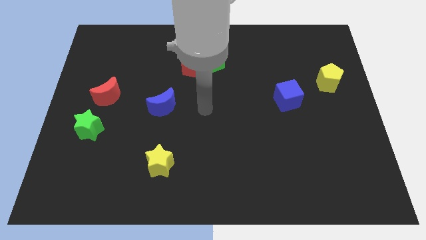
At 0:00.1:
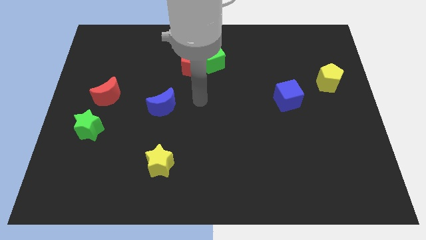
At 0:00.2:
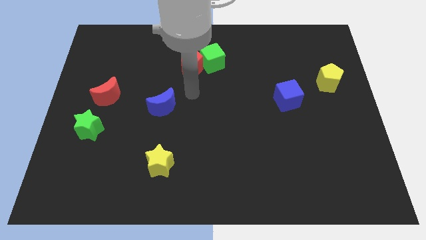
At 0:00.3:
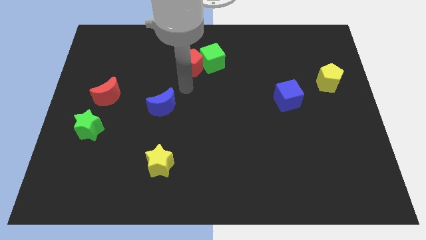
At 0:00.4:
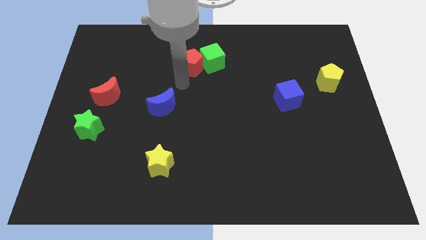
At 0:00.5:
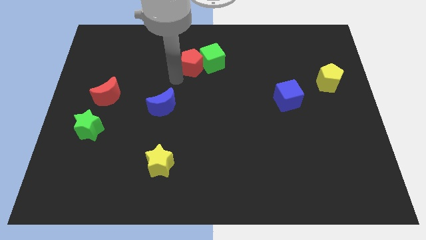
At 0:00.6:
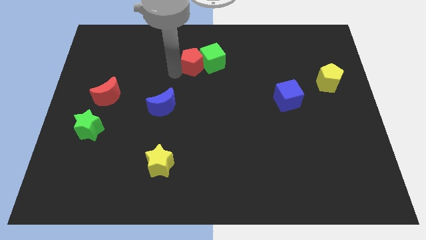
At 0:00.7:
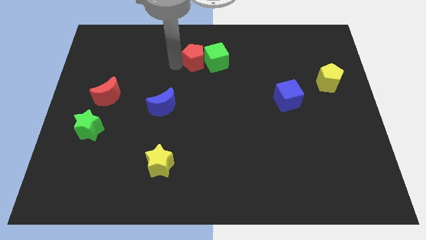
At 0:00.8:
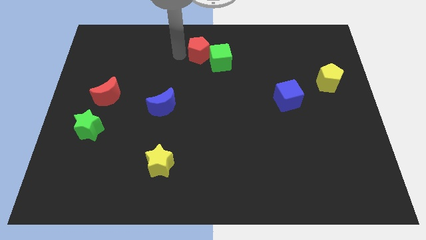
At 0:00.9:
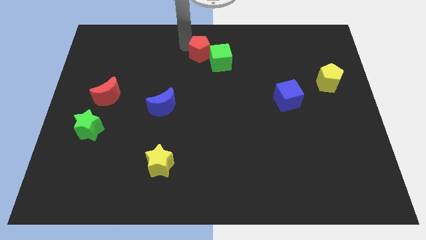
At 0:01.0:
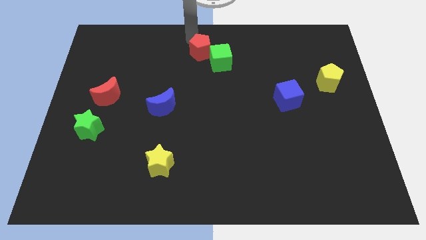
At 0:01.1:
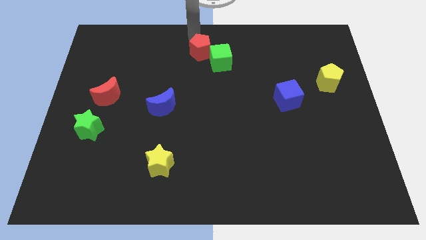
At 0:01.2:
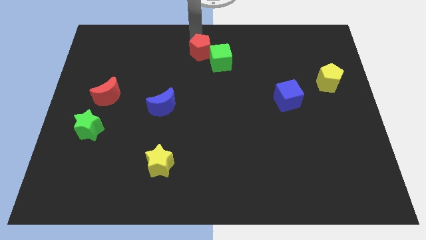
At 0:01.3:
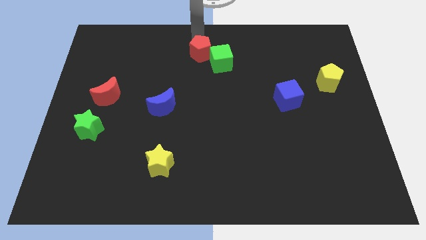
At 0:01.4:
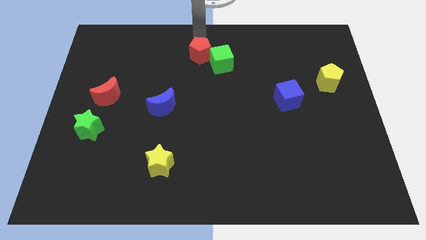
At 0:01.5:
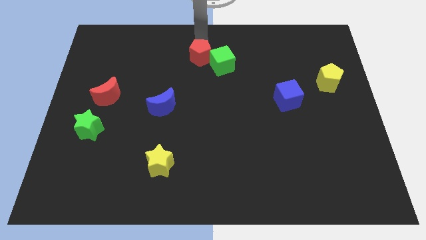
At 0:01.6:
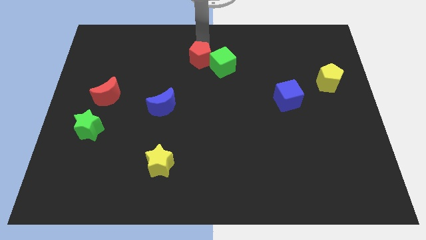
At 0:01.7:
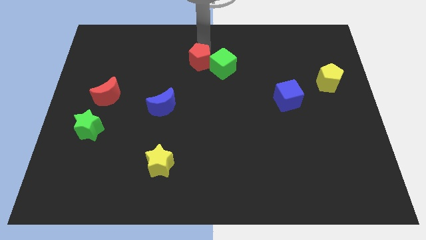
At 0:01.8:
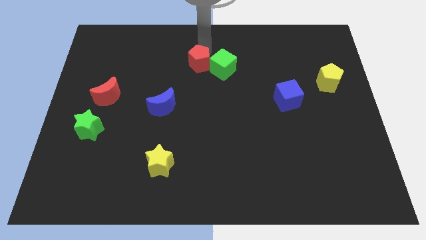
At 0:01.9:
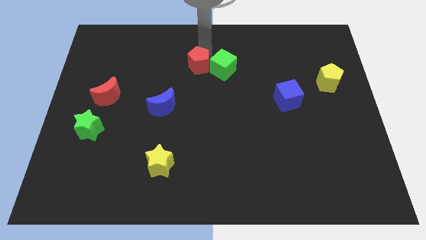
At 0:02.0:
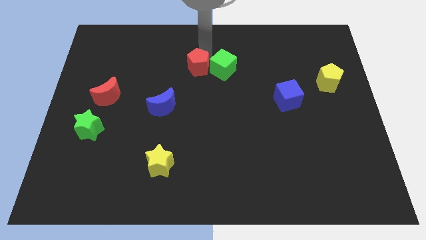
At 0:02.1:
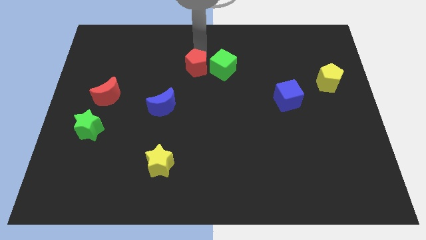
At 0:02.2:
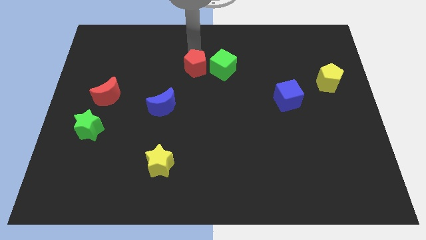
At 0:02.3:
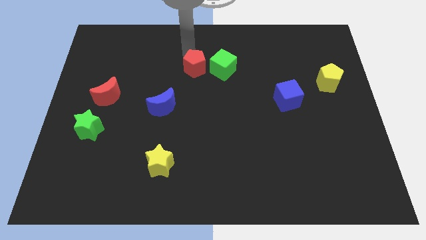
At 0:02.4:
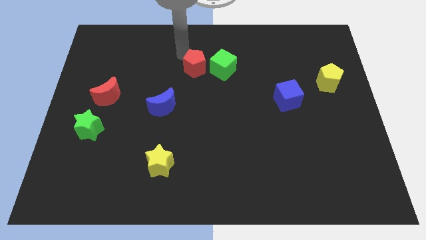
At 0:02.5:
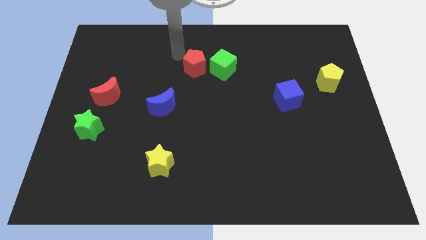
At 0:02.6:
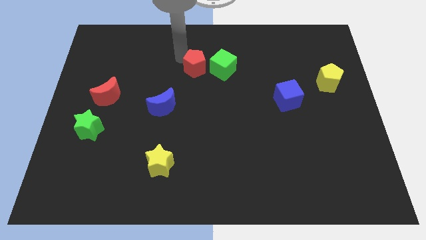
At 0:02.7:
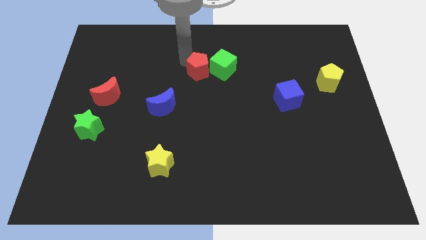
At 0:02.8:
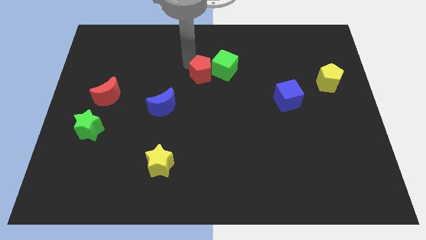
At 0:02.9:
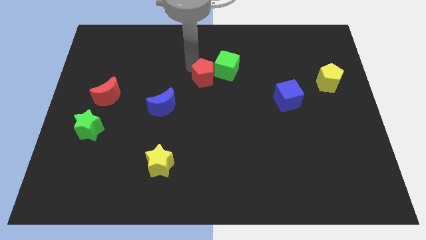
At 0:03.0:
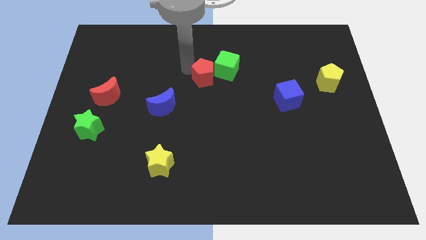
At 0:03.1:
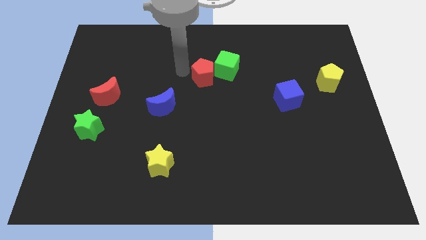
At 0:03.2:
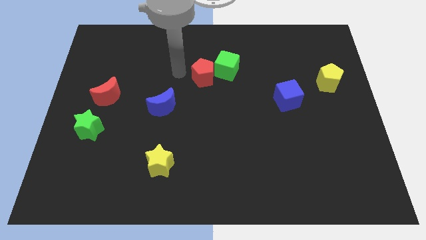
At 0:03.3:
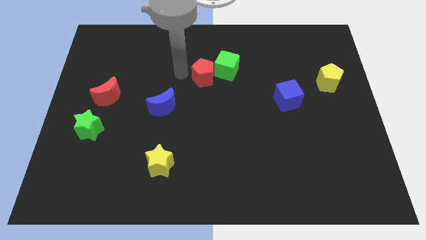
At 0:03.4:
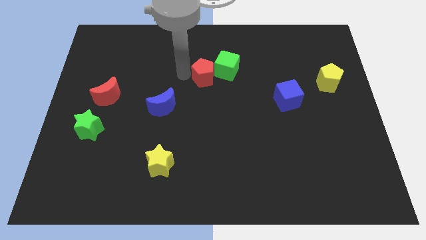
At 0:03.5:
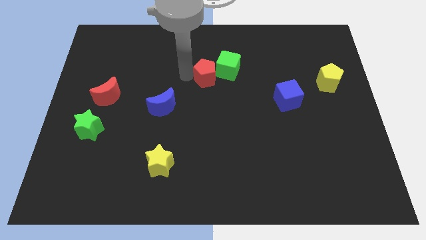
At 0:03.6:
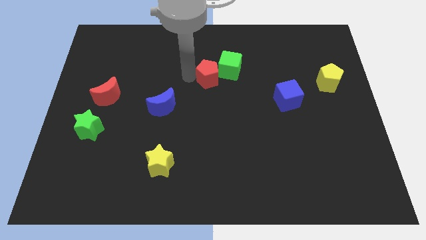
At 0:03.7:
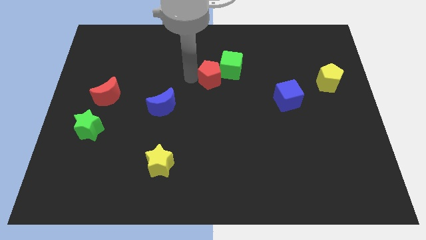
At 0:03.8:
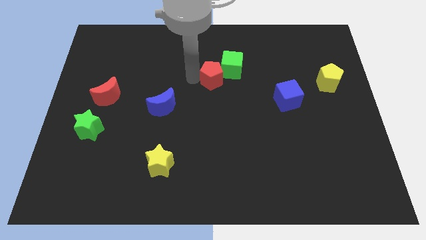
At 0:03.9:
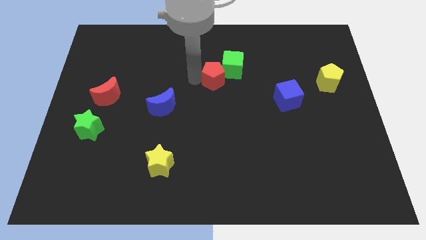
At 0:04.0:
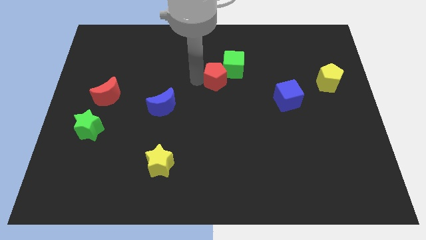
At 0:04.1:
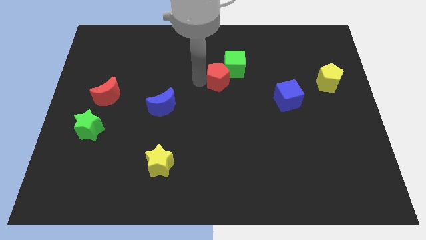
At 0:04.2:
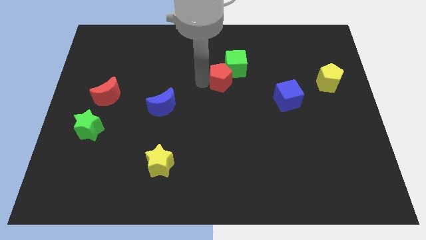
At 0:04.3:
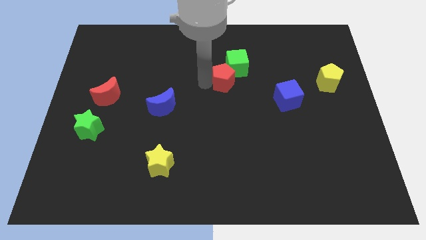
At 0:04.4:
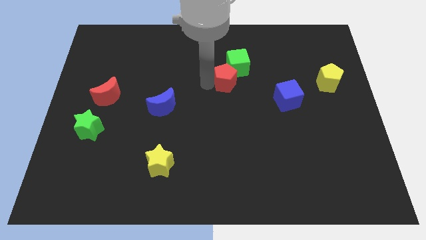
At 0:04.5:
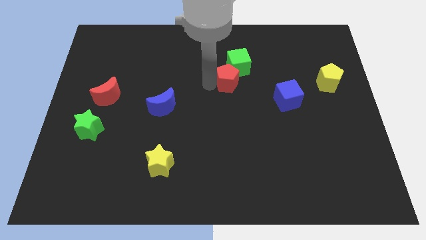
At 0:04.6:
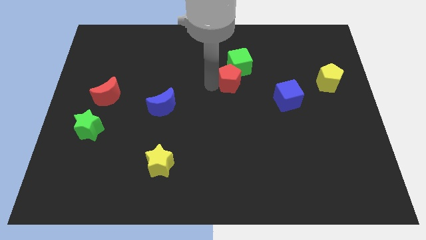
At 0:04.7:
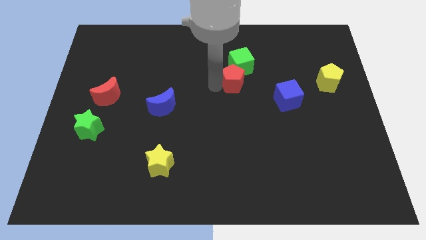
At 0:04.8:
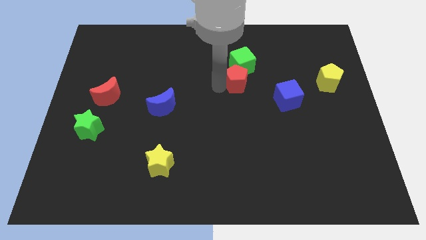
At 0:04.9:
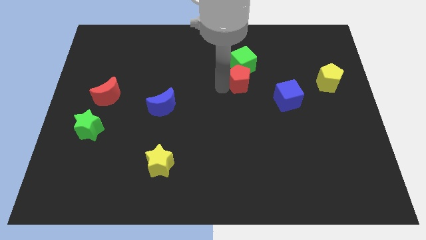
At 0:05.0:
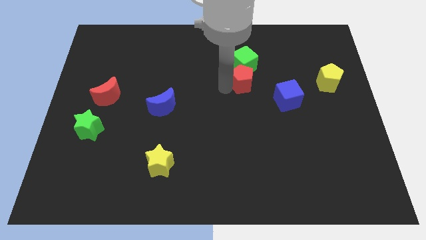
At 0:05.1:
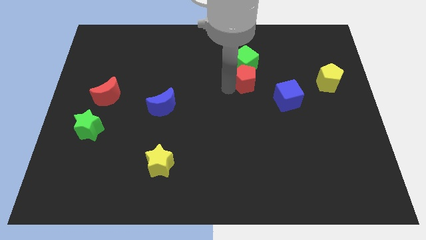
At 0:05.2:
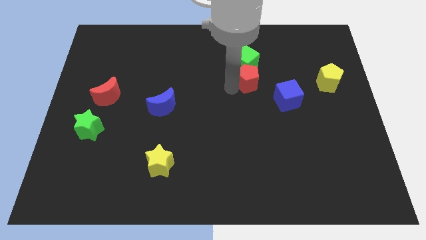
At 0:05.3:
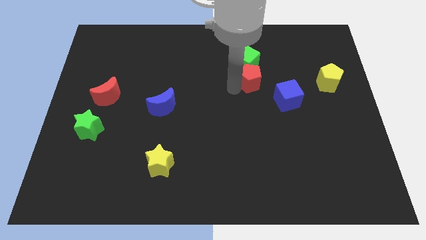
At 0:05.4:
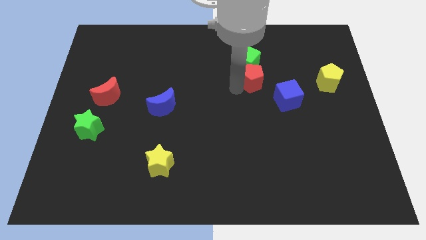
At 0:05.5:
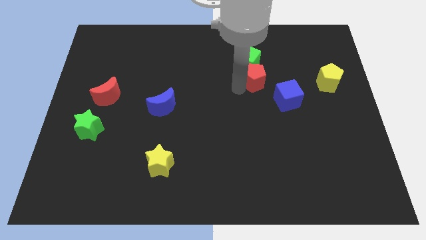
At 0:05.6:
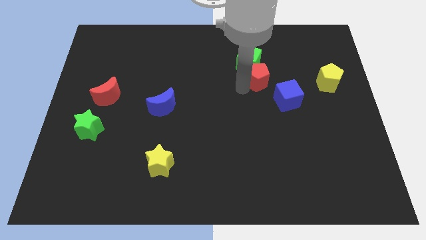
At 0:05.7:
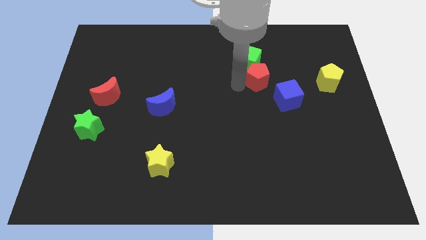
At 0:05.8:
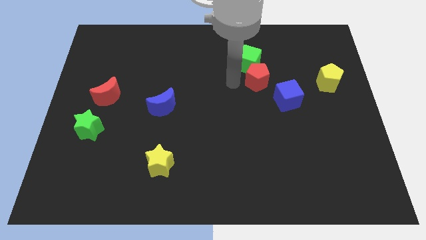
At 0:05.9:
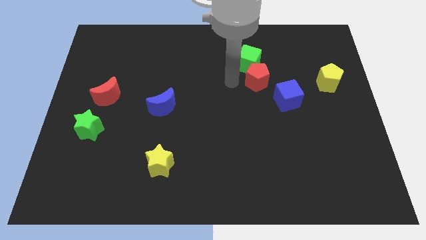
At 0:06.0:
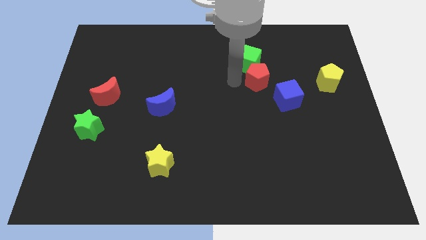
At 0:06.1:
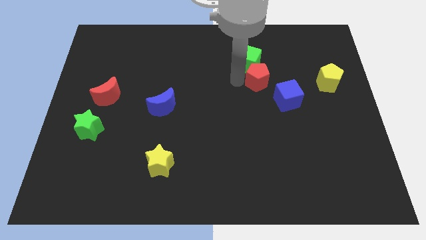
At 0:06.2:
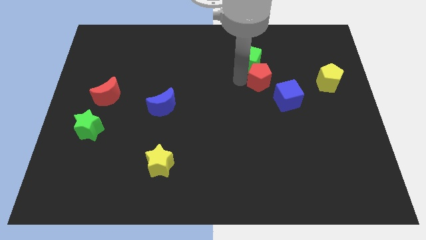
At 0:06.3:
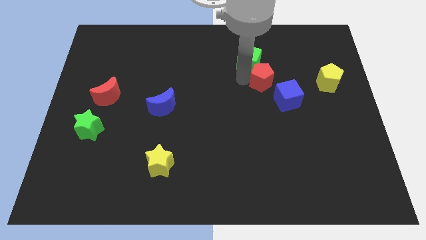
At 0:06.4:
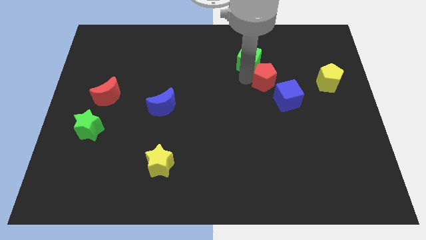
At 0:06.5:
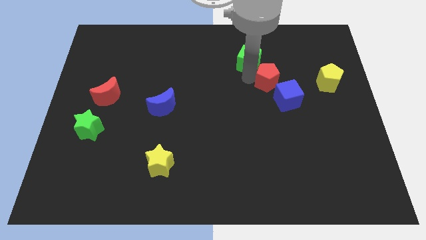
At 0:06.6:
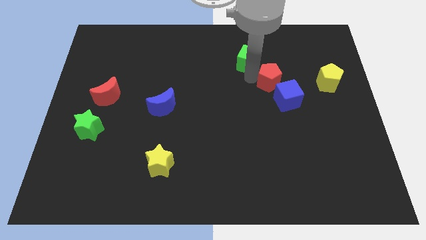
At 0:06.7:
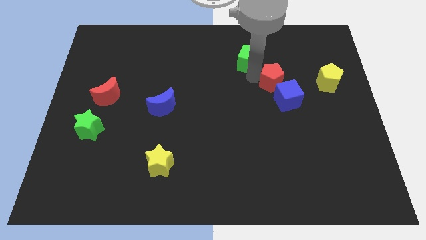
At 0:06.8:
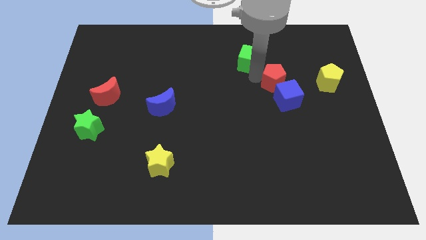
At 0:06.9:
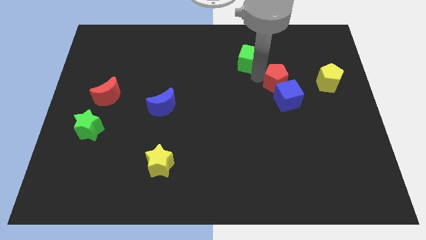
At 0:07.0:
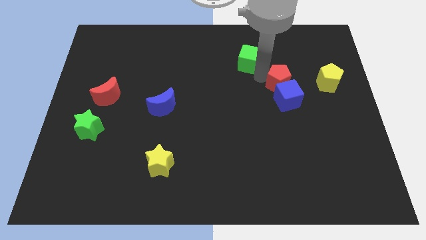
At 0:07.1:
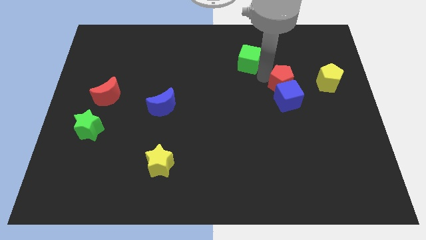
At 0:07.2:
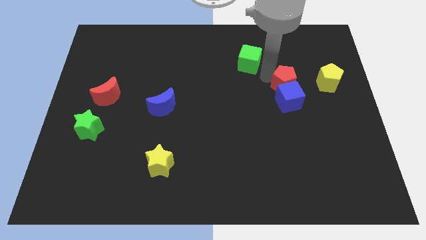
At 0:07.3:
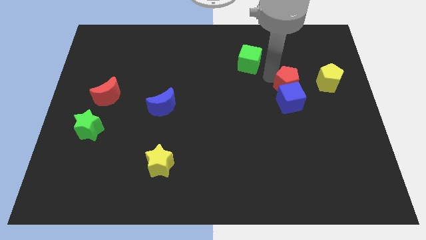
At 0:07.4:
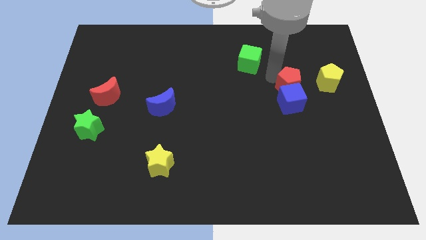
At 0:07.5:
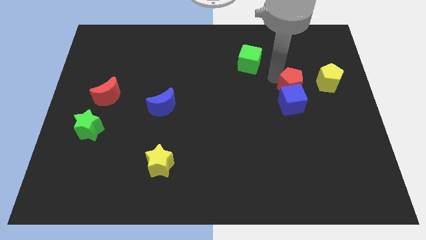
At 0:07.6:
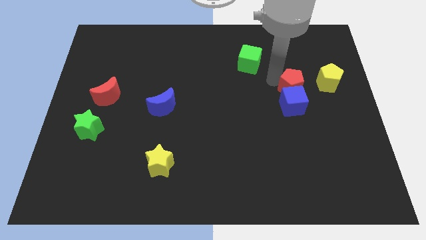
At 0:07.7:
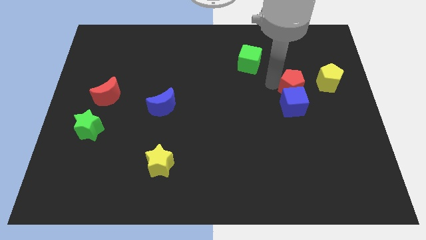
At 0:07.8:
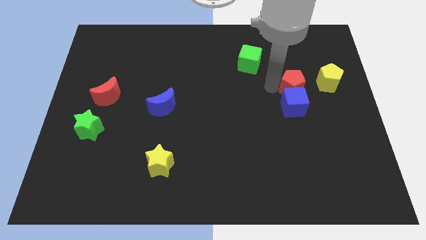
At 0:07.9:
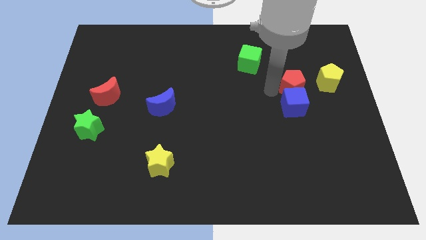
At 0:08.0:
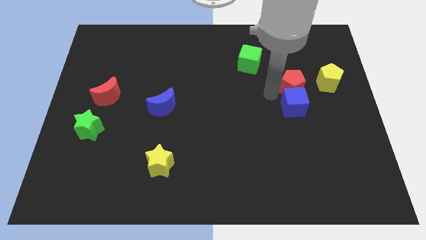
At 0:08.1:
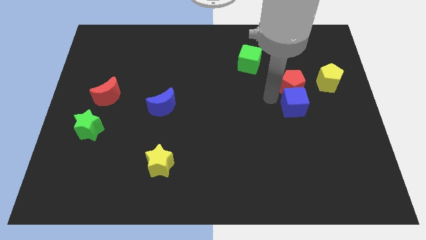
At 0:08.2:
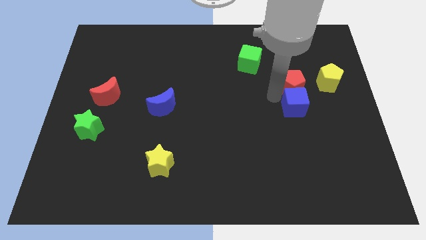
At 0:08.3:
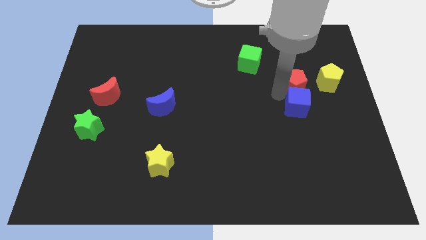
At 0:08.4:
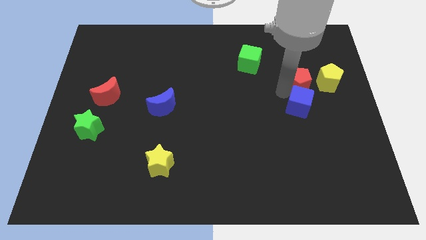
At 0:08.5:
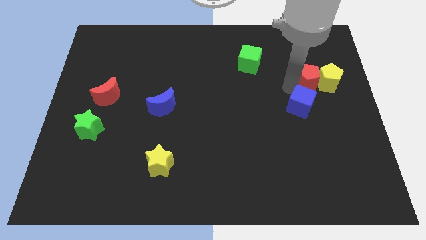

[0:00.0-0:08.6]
push the red pentagon next to the yellow pentagon
